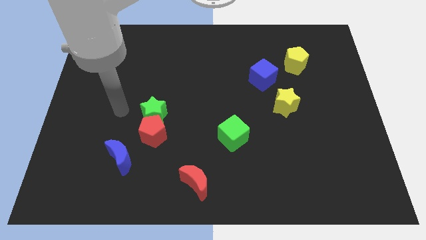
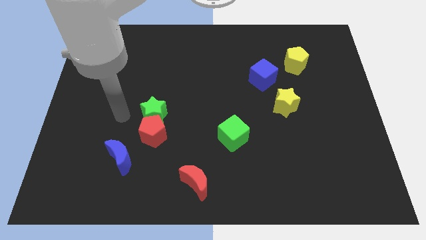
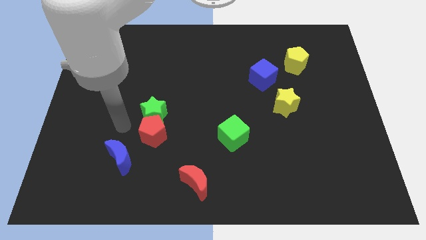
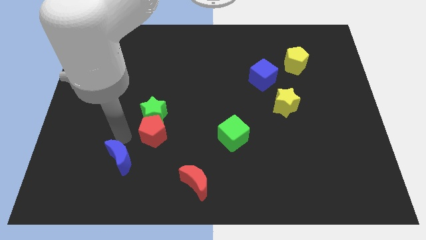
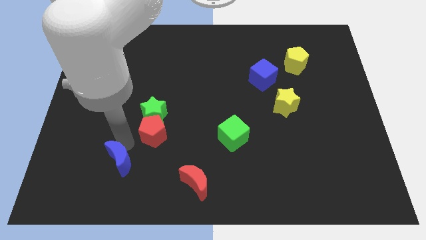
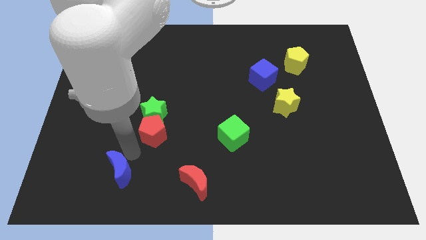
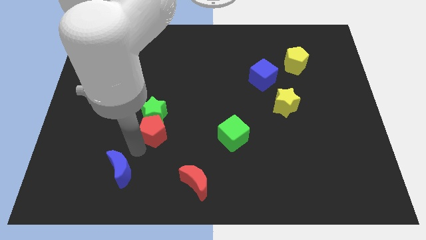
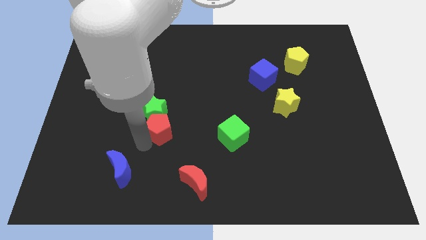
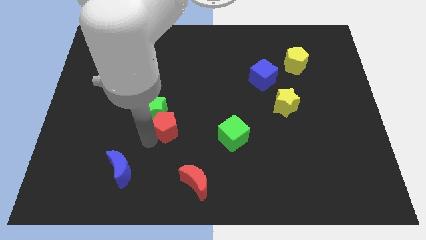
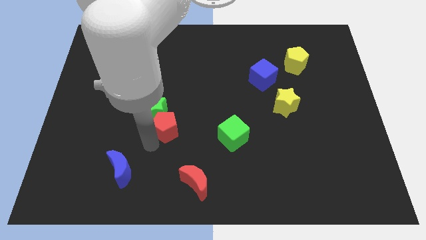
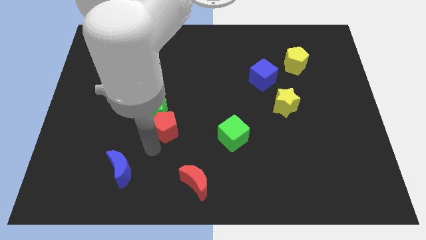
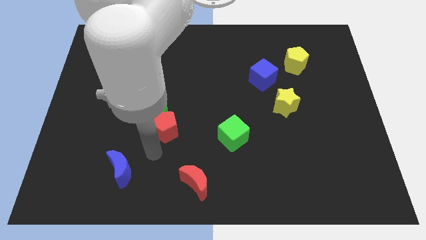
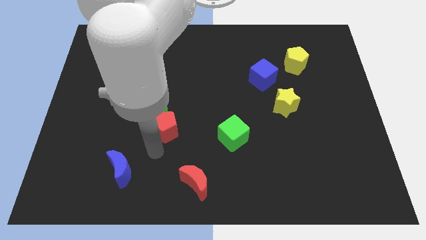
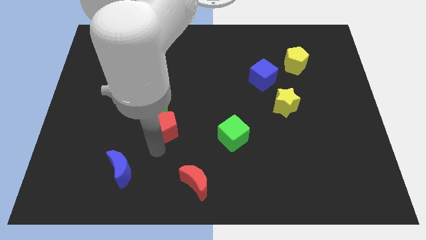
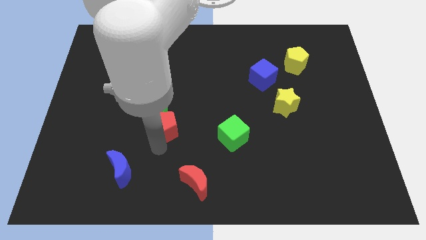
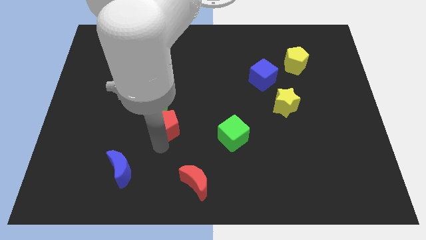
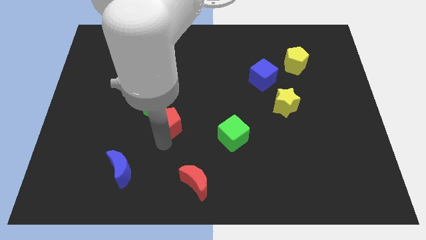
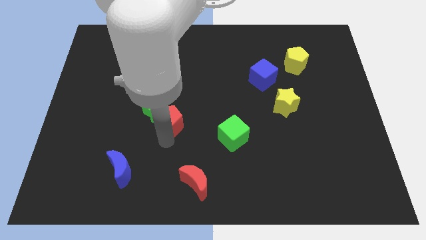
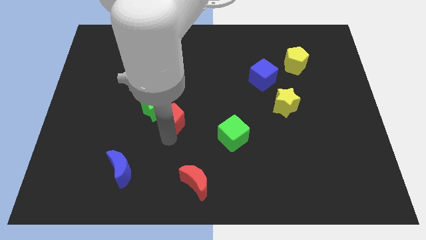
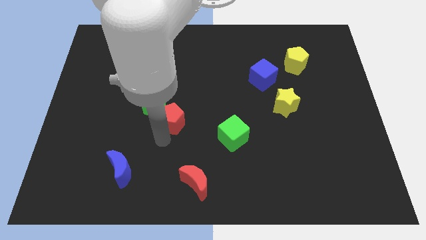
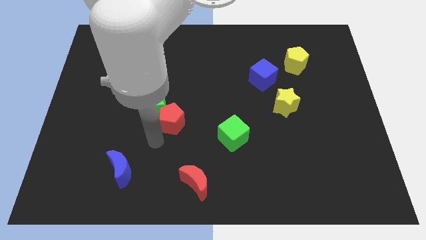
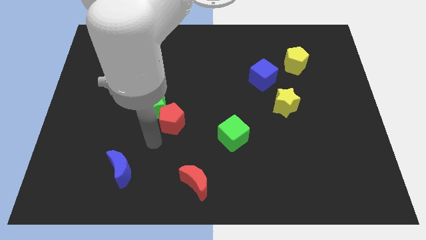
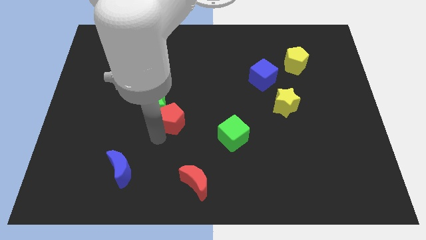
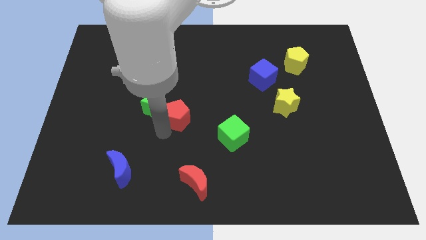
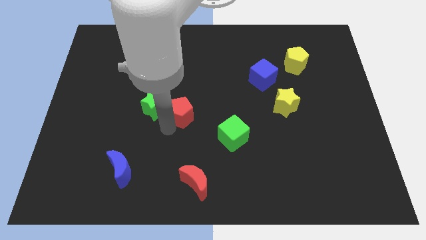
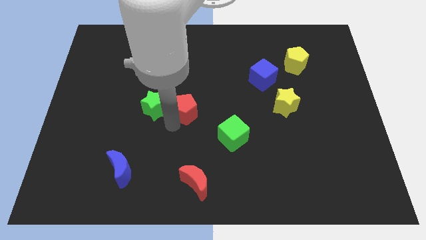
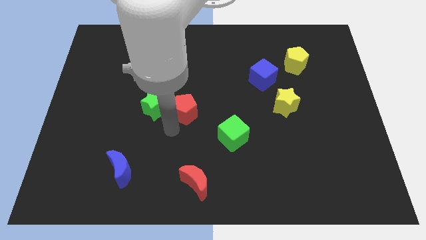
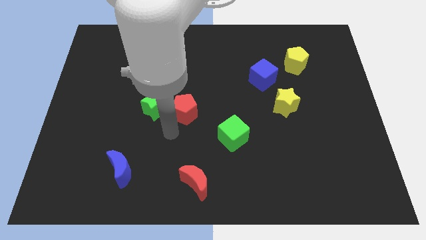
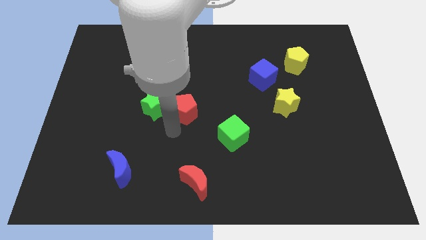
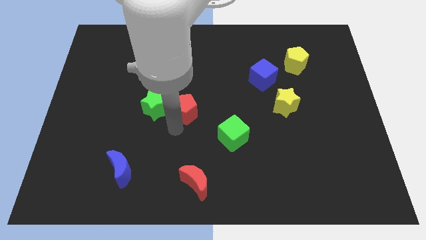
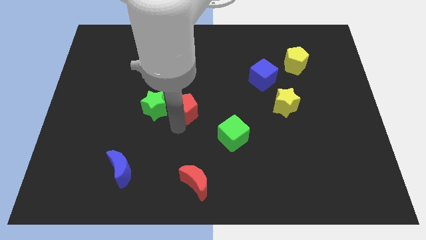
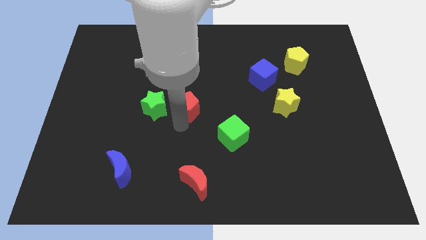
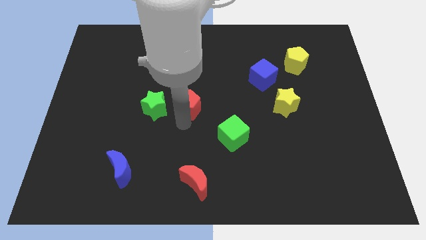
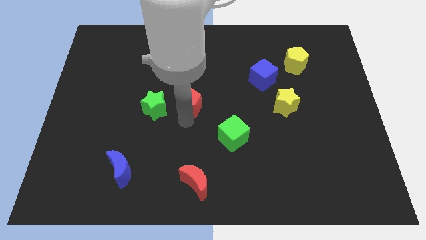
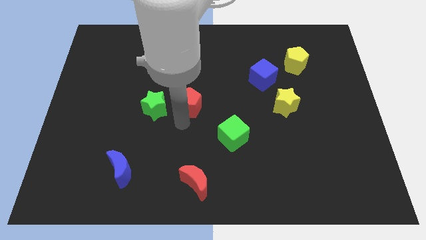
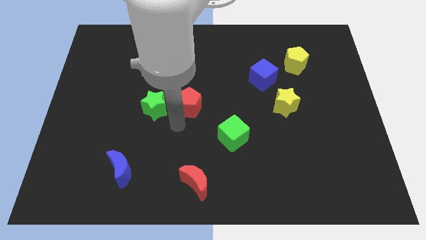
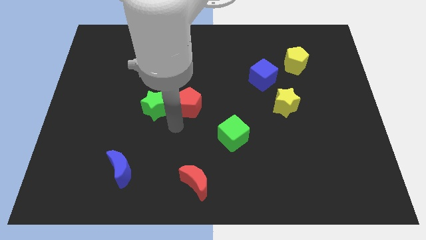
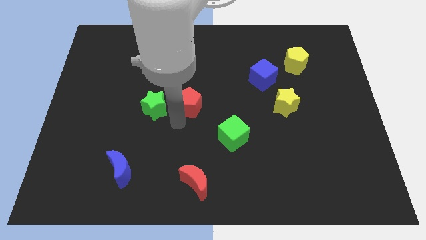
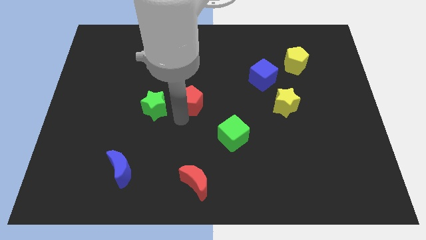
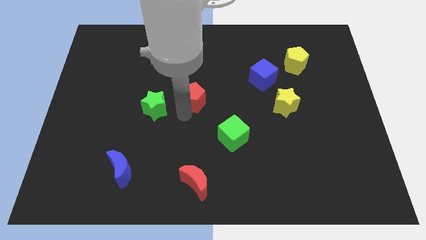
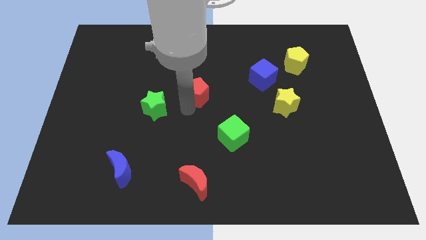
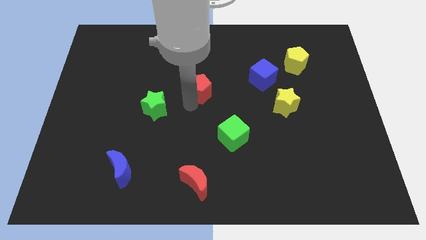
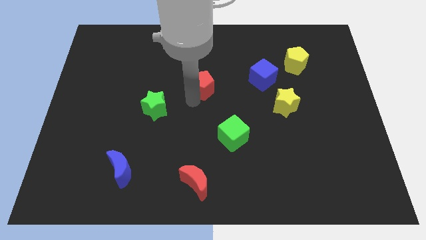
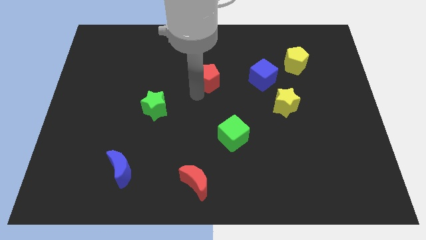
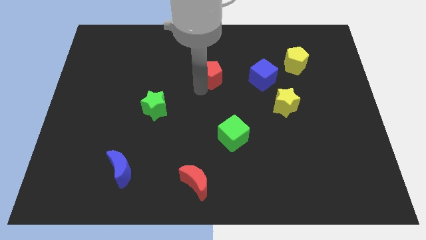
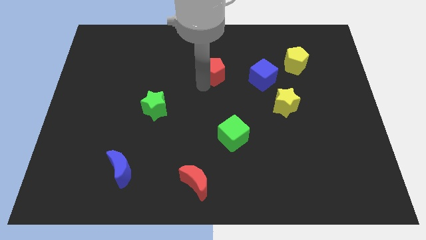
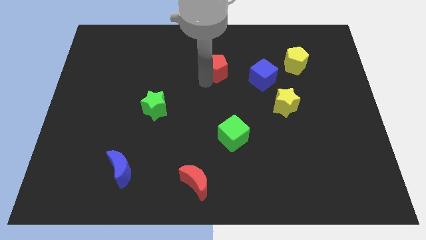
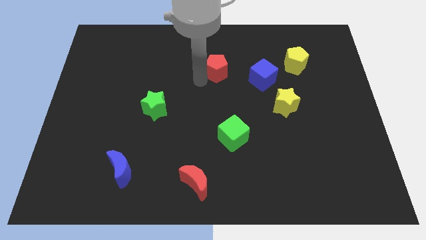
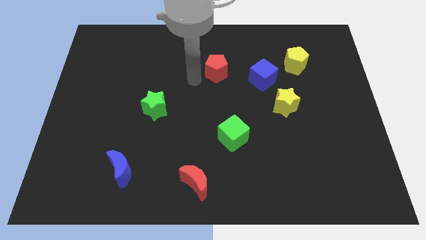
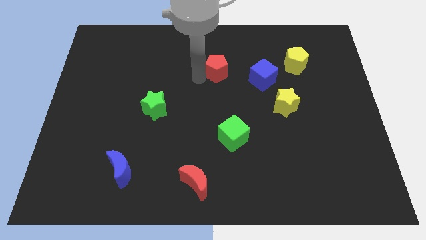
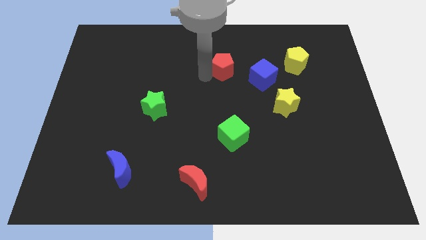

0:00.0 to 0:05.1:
slide the red pentagon to the top left side of the blue cube
